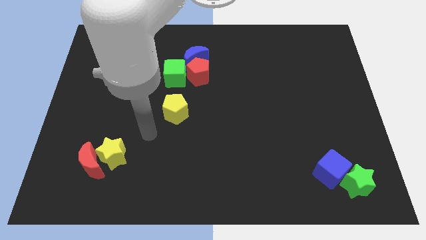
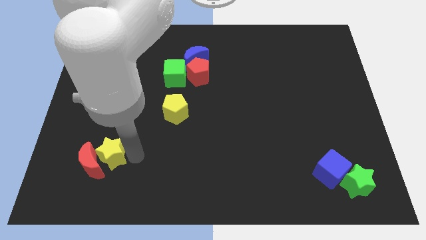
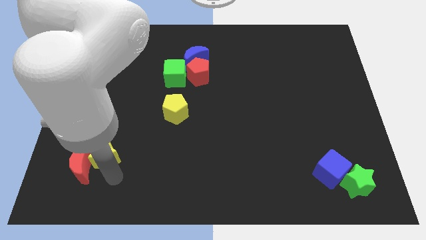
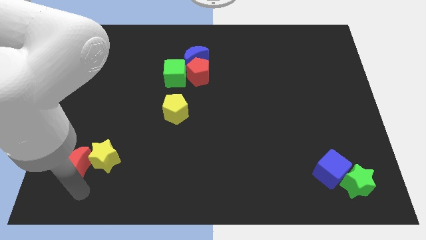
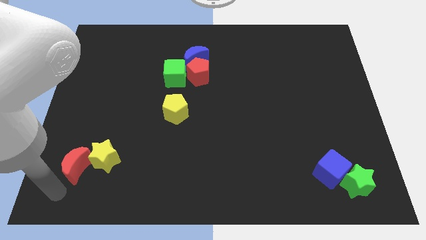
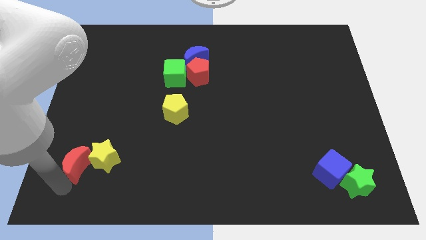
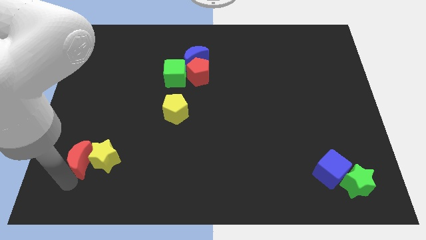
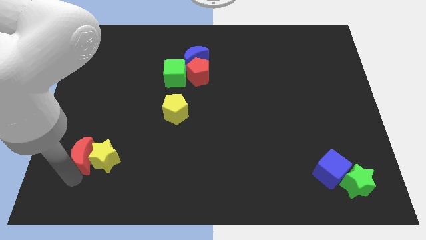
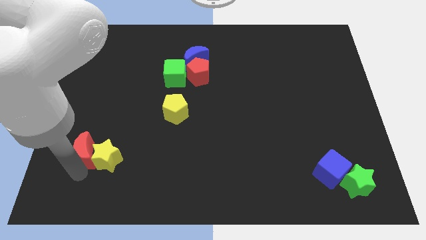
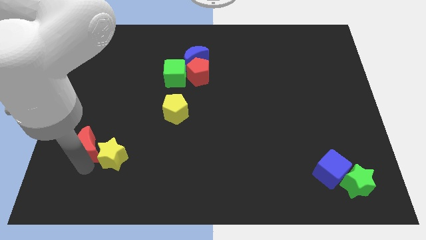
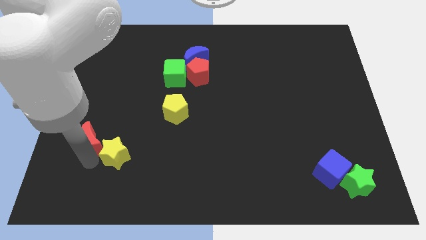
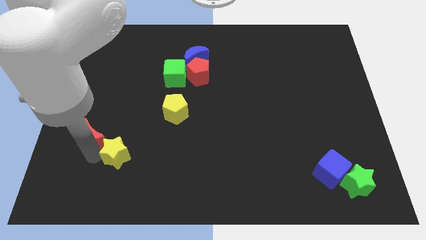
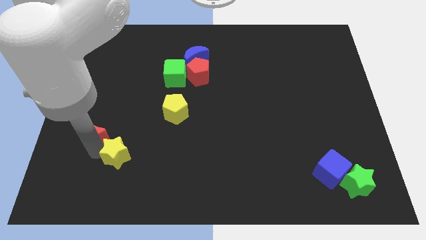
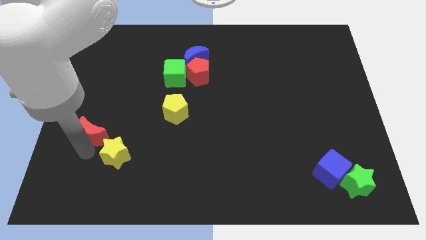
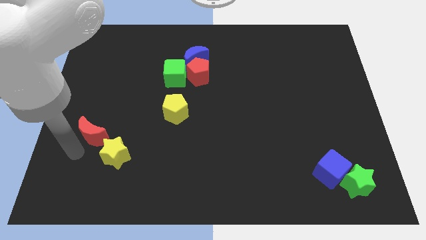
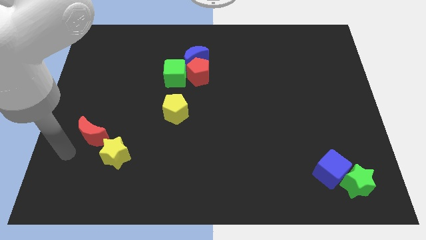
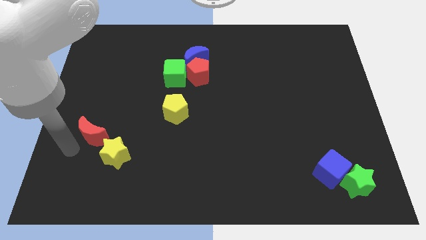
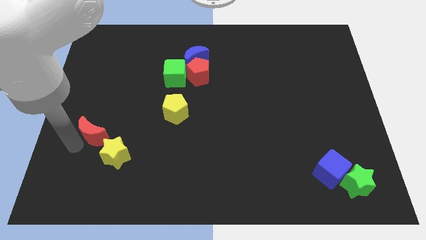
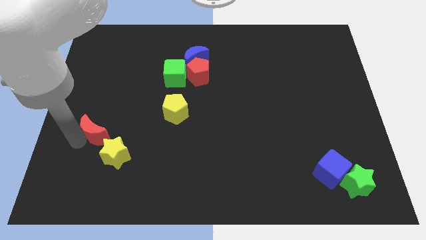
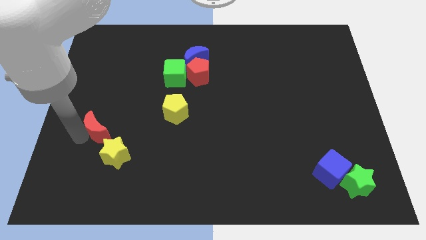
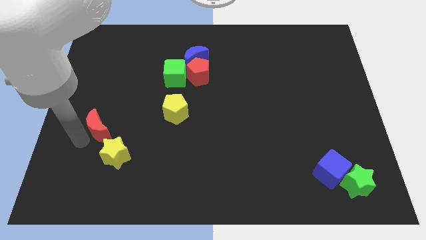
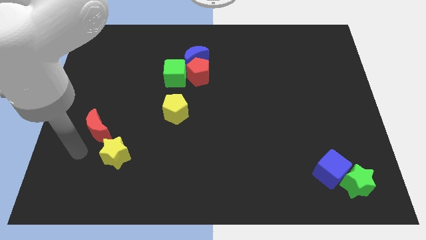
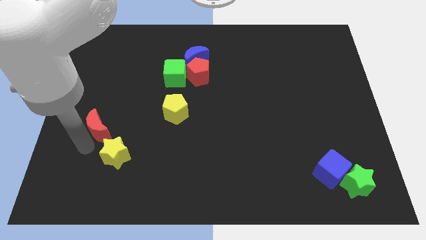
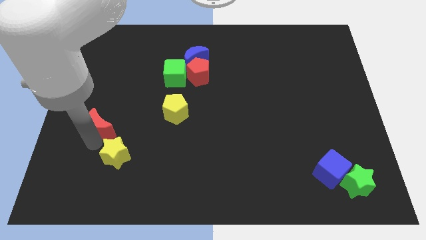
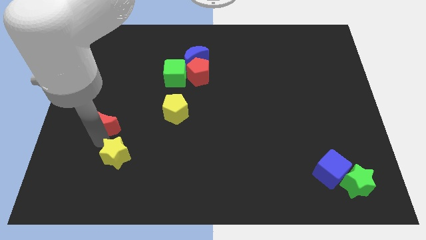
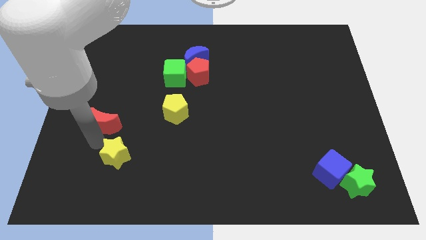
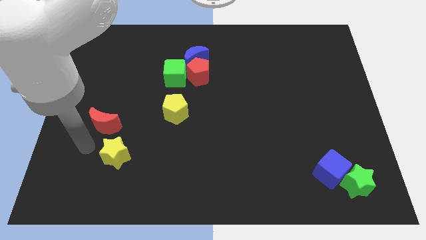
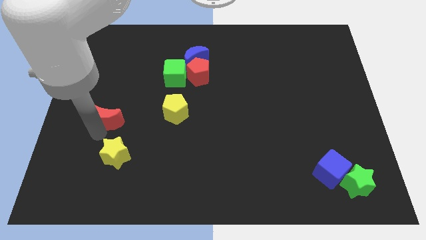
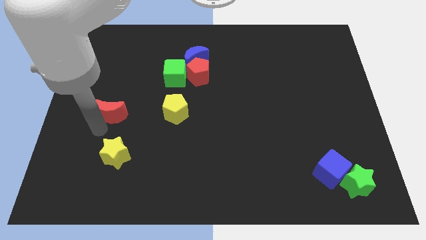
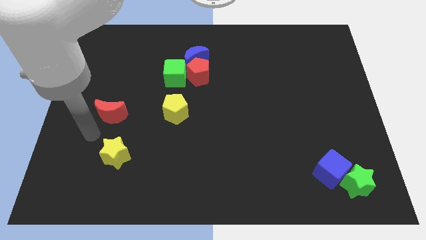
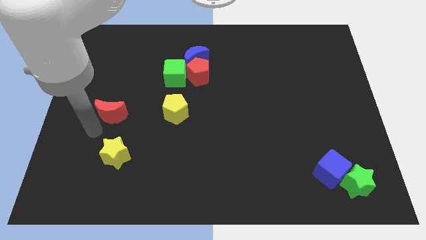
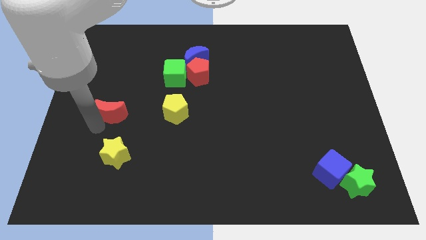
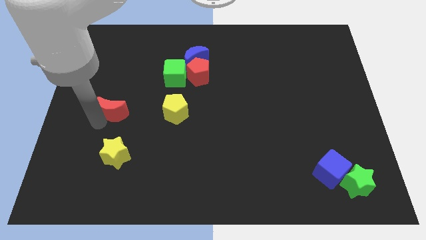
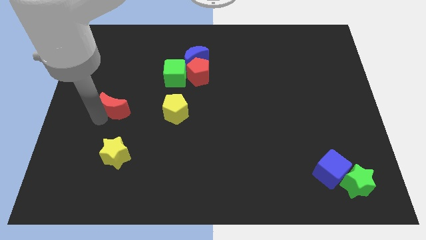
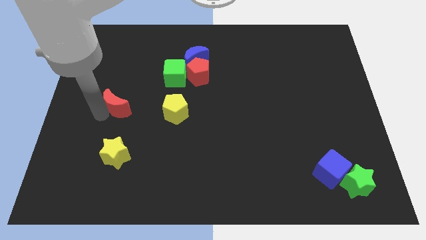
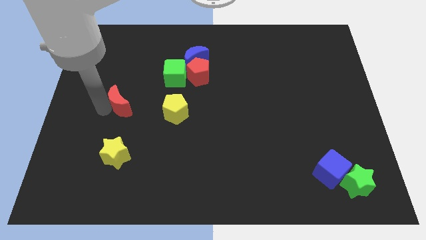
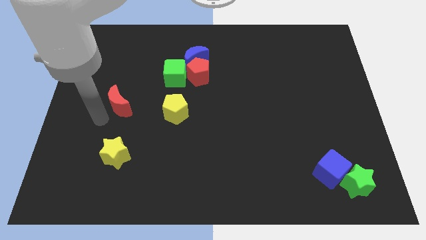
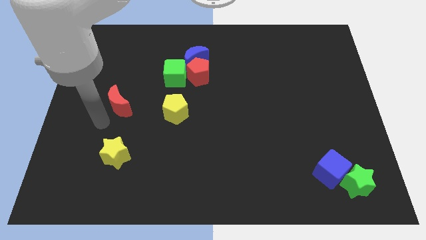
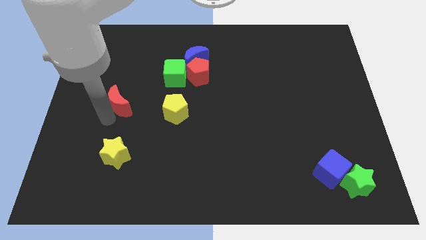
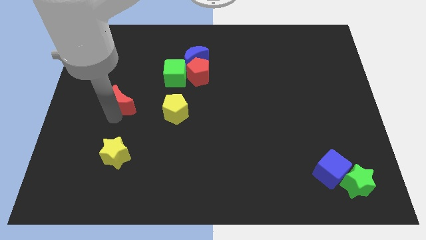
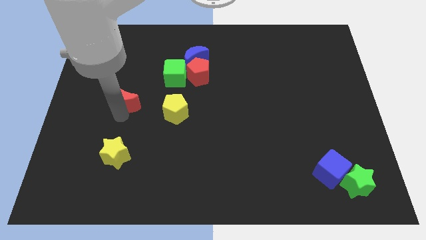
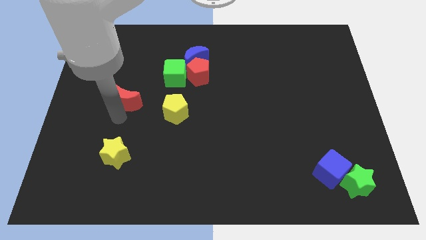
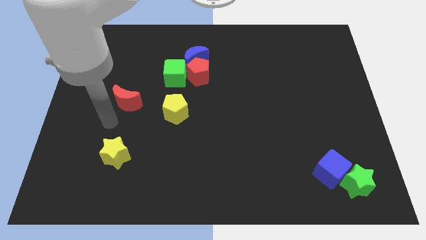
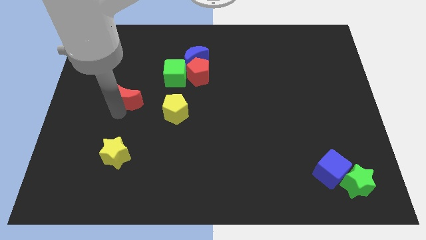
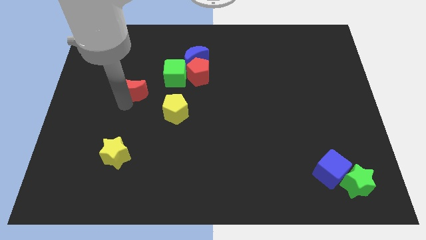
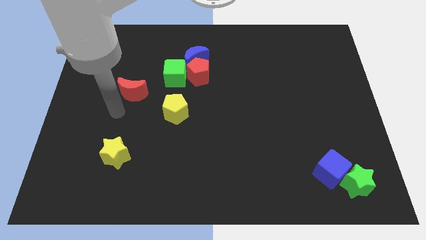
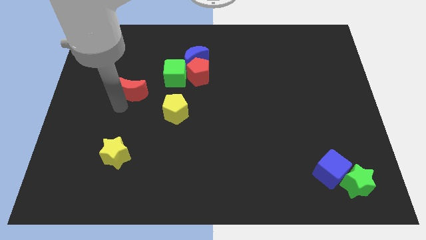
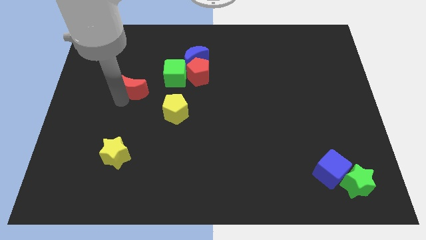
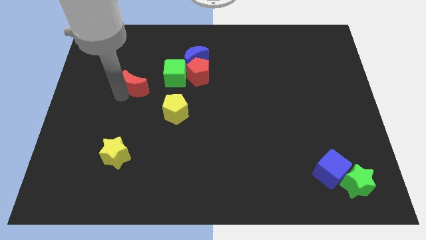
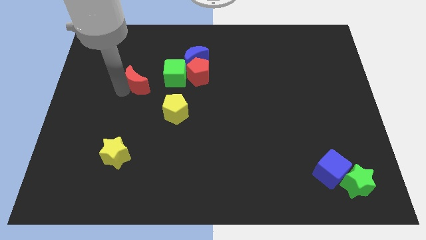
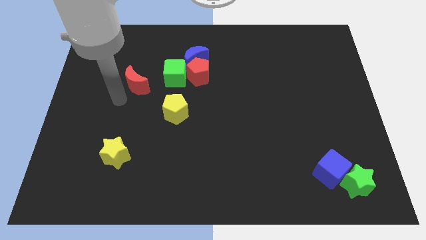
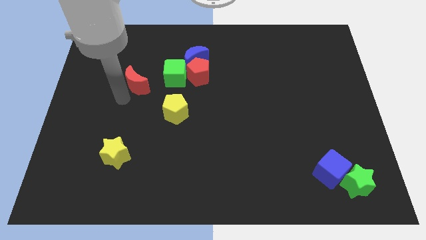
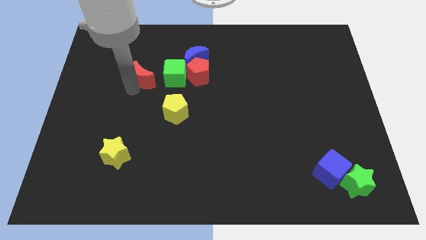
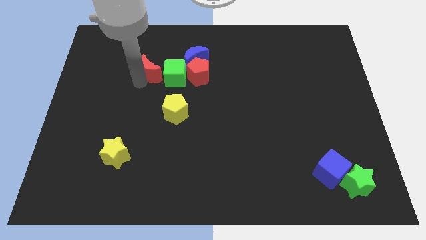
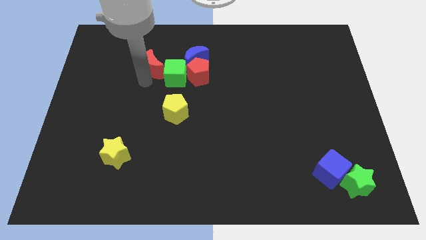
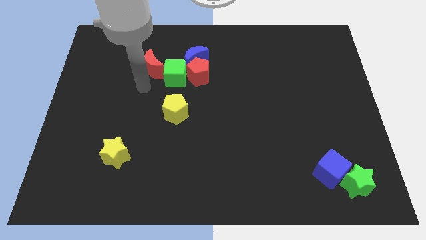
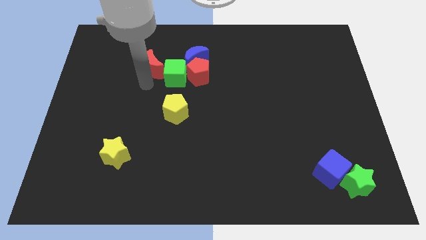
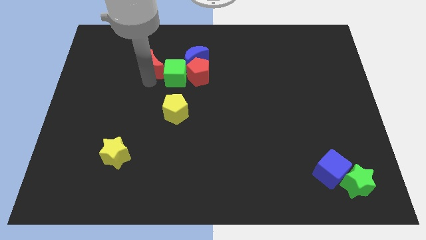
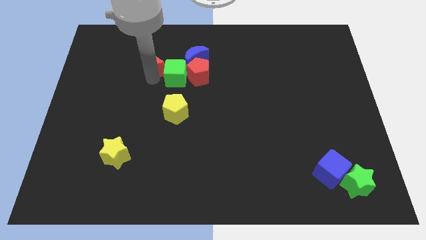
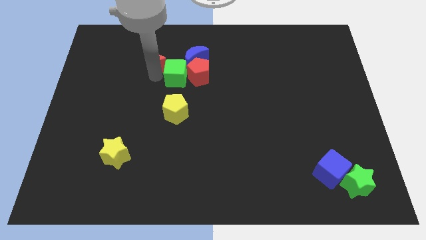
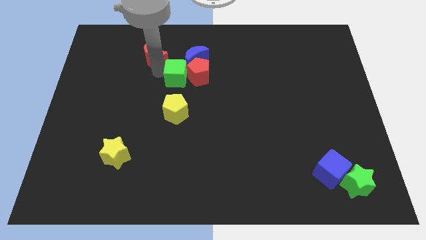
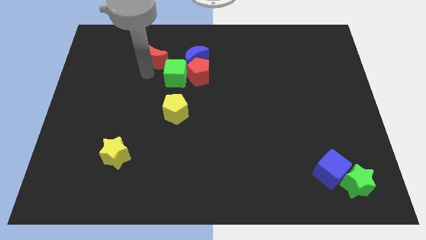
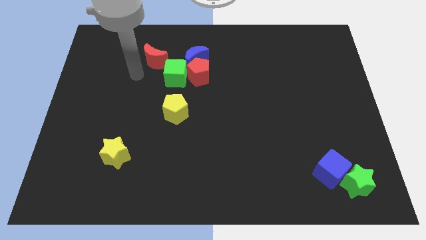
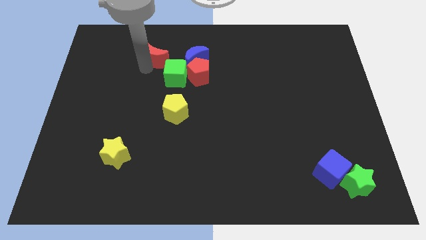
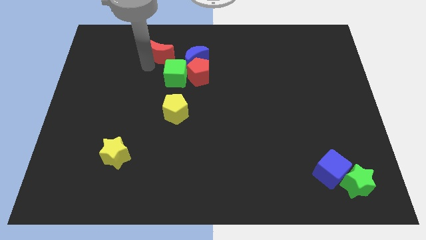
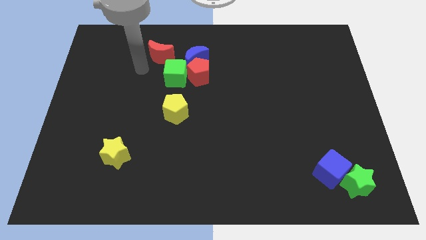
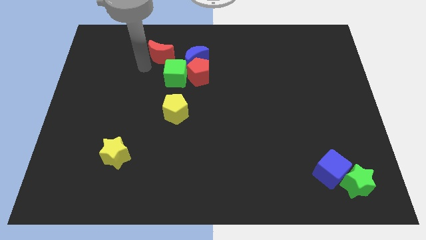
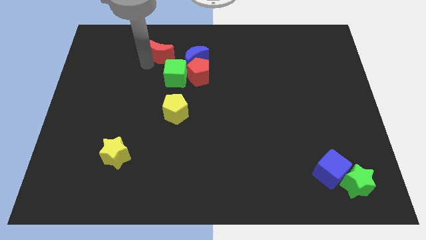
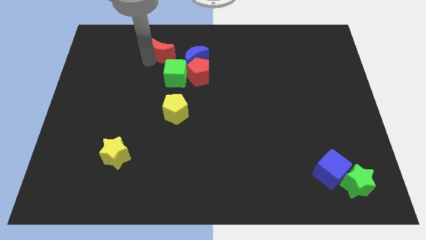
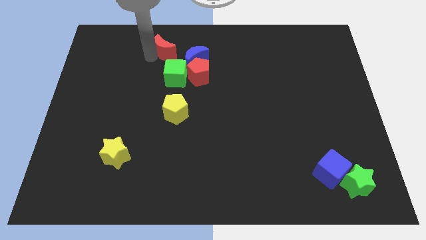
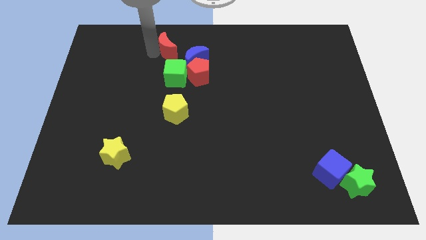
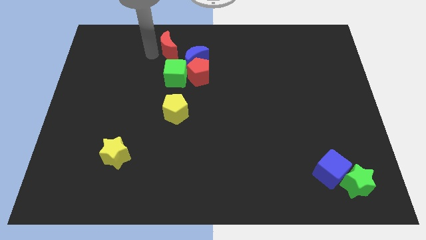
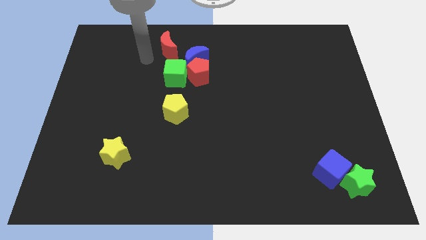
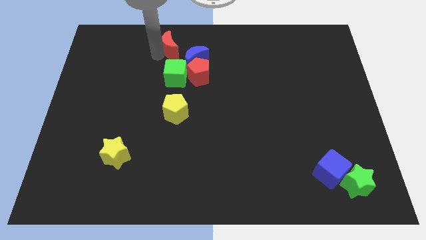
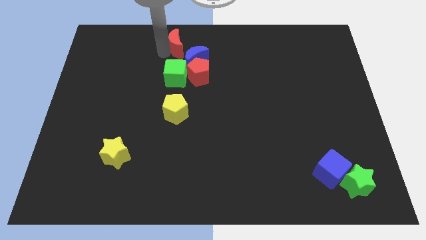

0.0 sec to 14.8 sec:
slide the red moon to the towards your base
